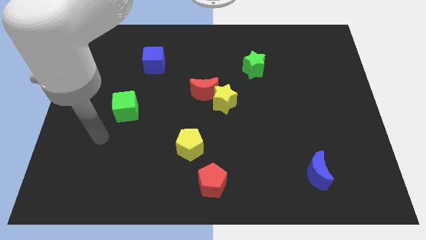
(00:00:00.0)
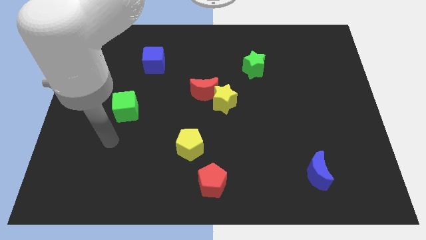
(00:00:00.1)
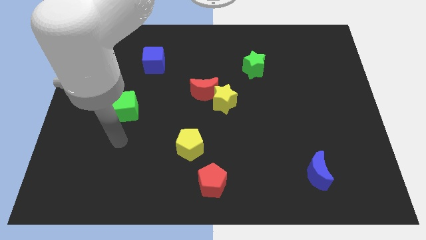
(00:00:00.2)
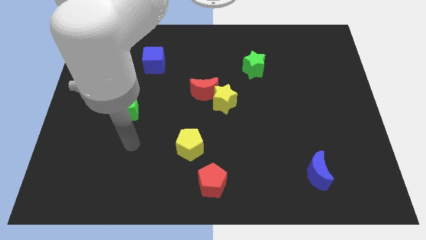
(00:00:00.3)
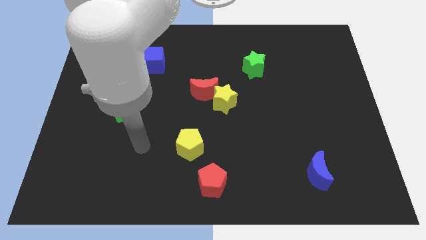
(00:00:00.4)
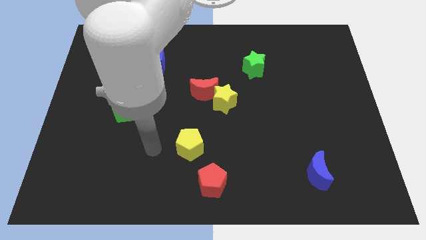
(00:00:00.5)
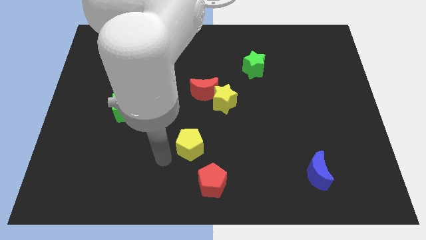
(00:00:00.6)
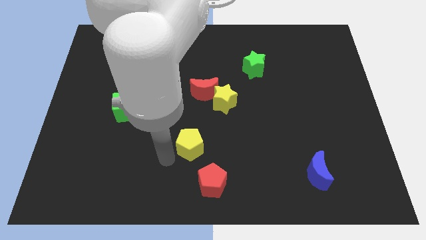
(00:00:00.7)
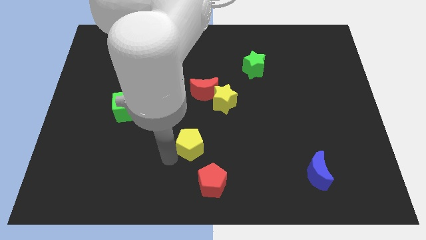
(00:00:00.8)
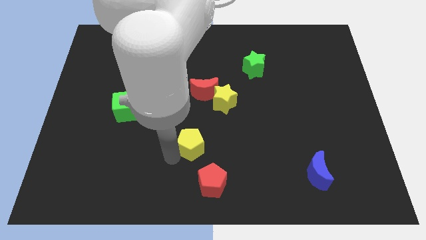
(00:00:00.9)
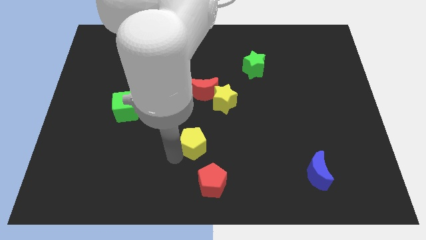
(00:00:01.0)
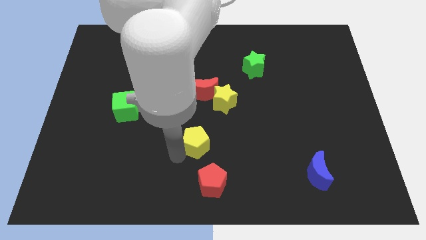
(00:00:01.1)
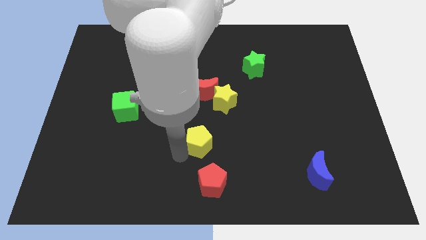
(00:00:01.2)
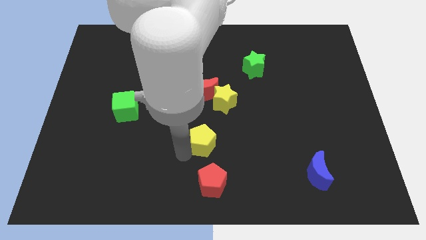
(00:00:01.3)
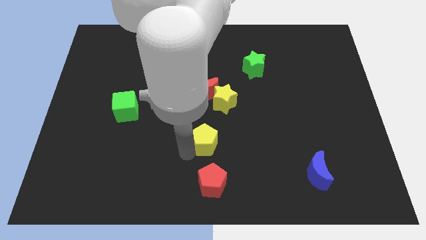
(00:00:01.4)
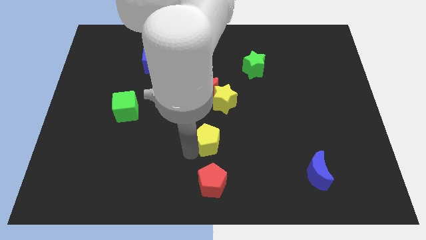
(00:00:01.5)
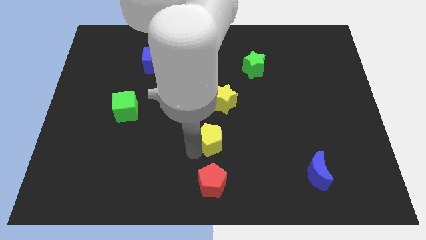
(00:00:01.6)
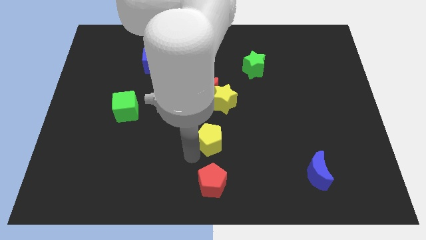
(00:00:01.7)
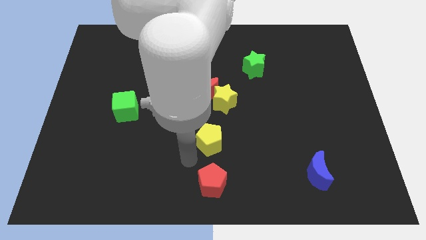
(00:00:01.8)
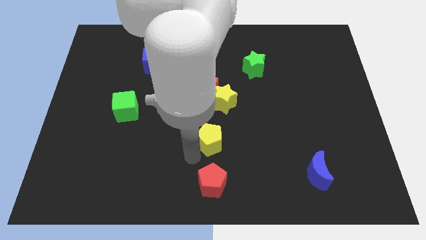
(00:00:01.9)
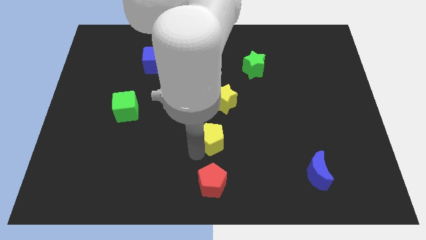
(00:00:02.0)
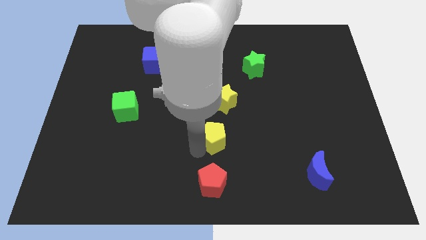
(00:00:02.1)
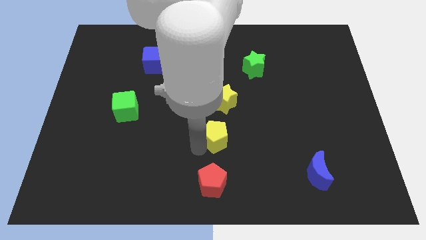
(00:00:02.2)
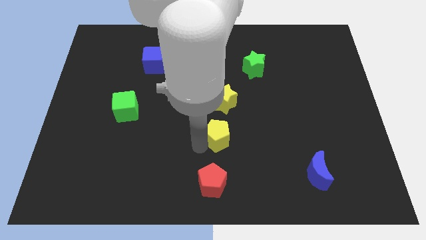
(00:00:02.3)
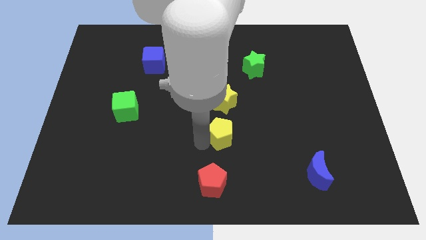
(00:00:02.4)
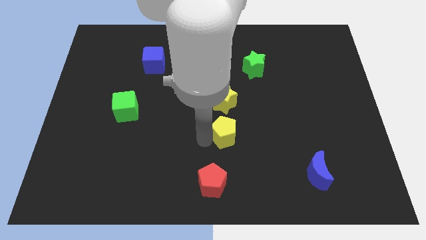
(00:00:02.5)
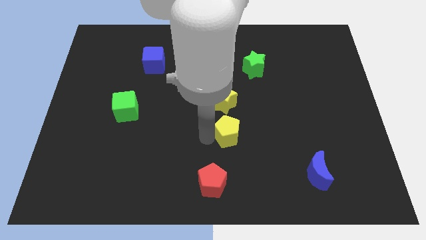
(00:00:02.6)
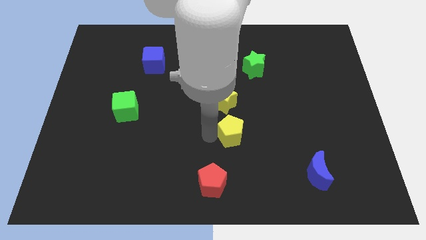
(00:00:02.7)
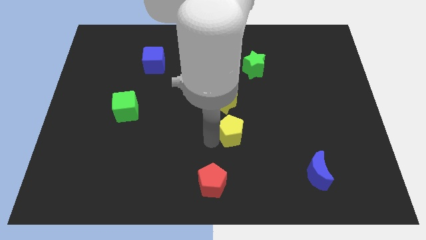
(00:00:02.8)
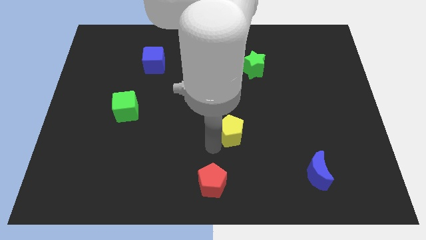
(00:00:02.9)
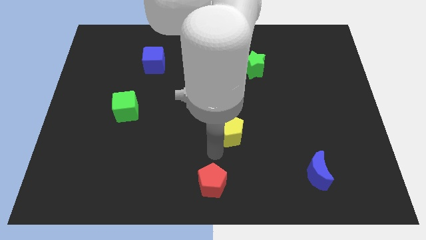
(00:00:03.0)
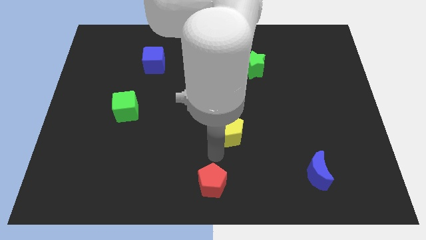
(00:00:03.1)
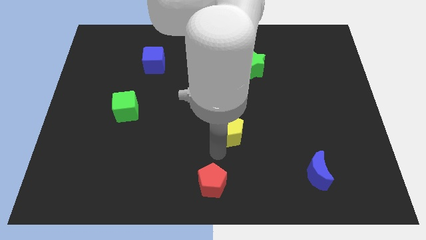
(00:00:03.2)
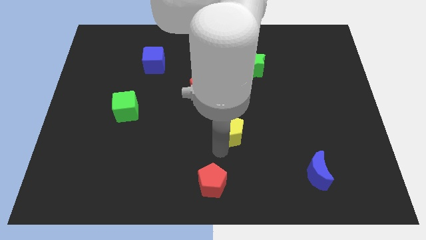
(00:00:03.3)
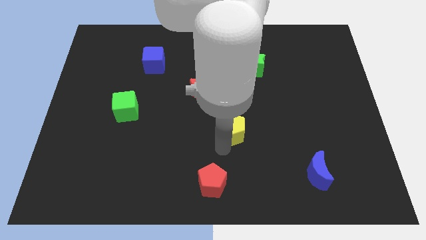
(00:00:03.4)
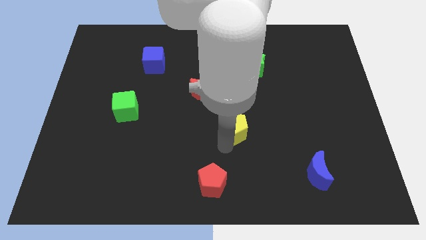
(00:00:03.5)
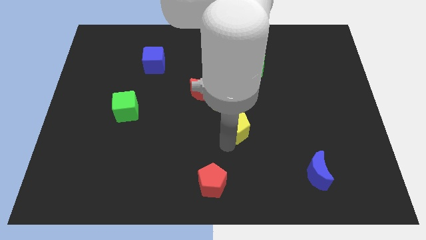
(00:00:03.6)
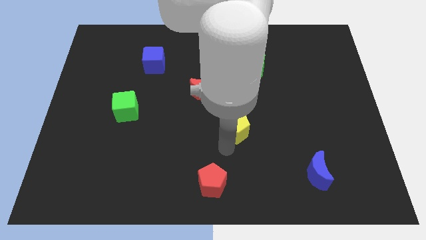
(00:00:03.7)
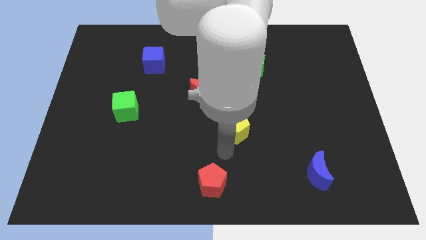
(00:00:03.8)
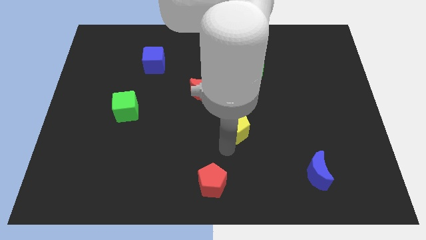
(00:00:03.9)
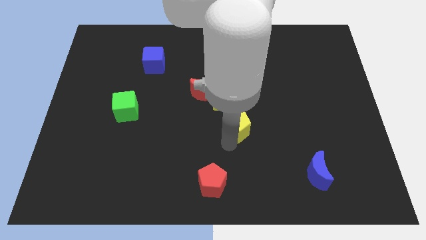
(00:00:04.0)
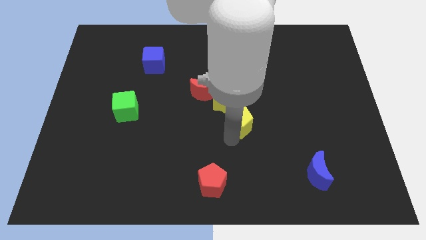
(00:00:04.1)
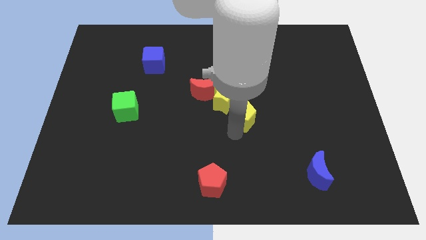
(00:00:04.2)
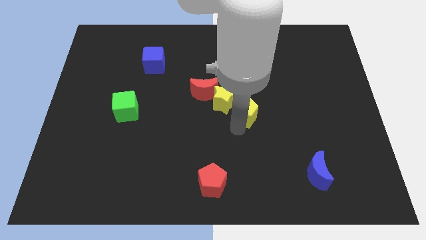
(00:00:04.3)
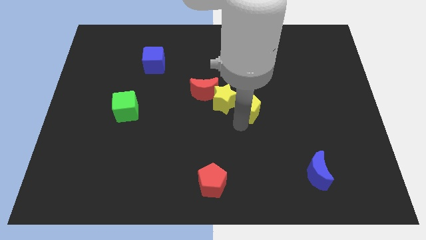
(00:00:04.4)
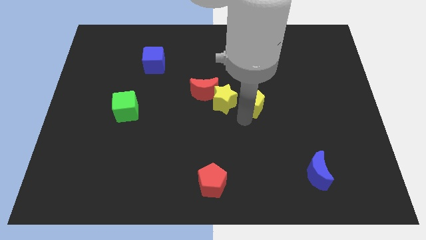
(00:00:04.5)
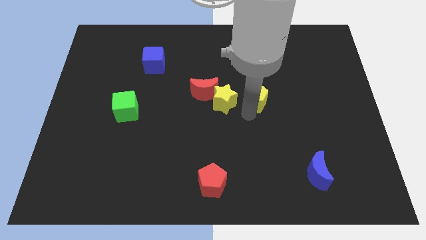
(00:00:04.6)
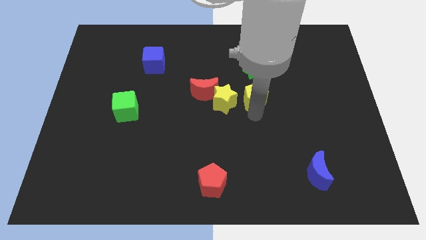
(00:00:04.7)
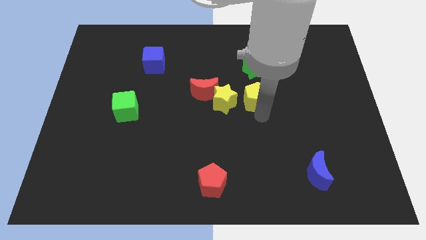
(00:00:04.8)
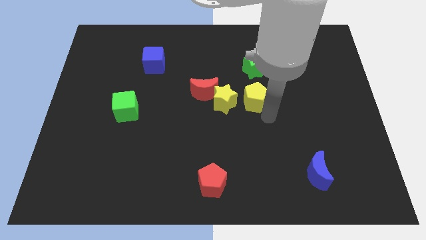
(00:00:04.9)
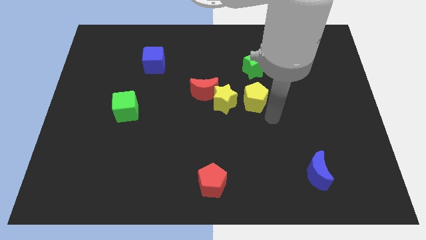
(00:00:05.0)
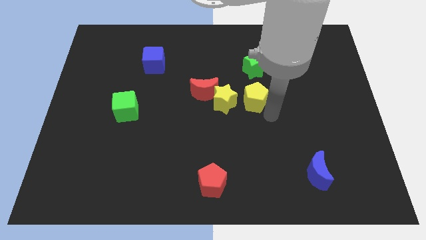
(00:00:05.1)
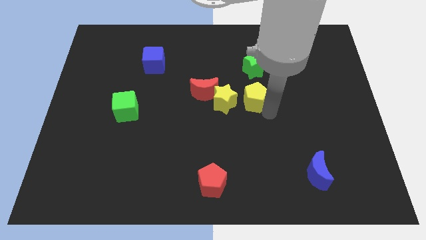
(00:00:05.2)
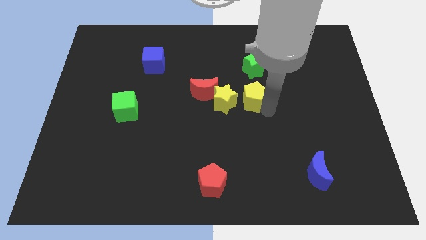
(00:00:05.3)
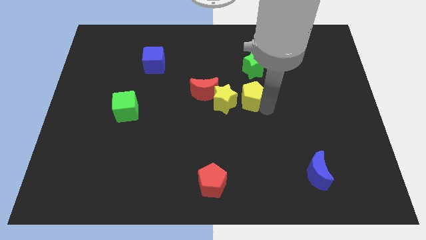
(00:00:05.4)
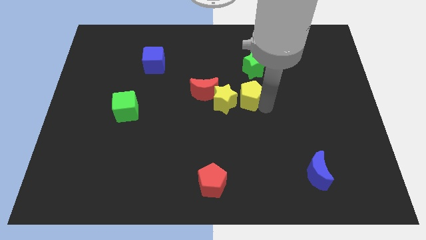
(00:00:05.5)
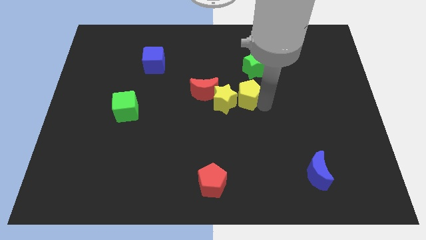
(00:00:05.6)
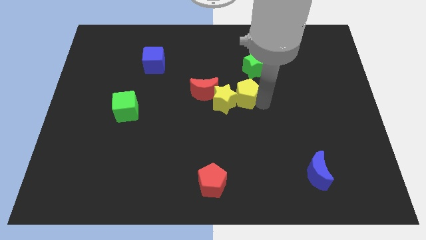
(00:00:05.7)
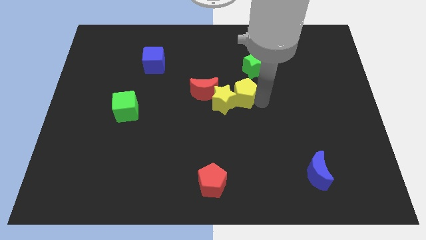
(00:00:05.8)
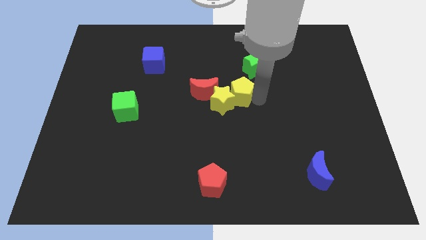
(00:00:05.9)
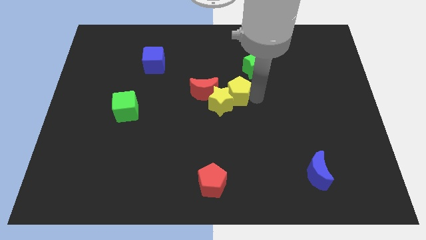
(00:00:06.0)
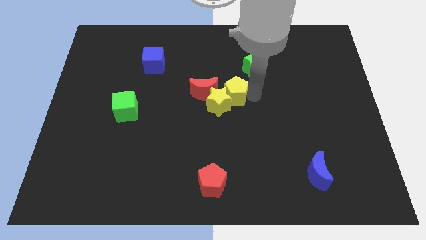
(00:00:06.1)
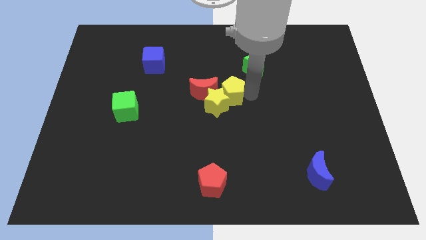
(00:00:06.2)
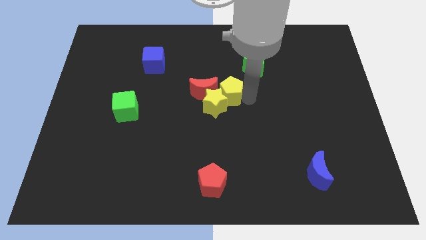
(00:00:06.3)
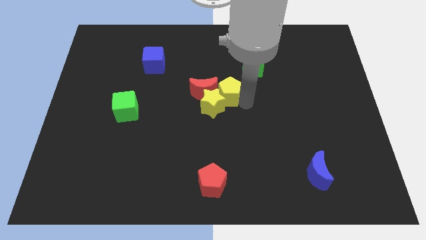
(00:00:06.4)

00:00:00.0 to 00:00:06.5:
move the yellow pentagon diagonally up and to the right of the red moon

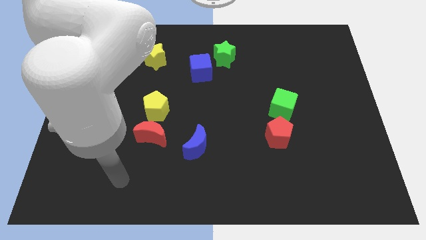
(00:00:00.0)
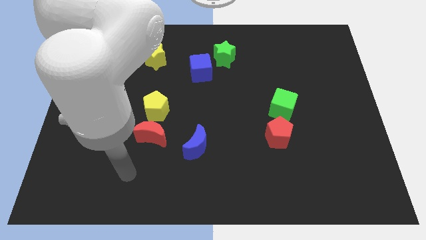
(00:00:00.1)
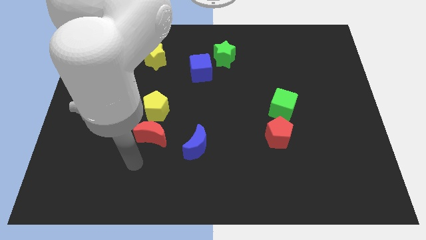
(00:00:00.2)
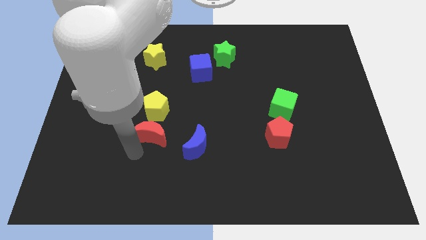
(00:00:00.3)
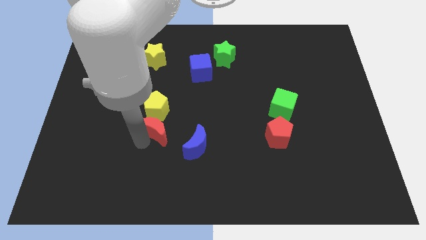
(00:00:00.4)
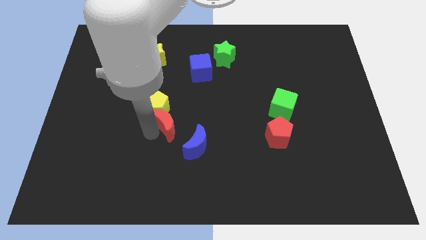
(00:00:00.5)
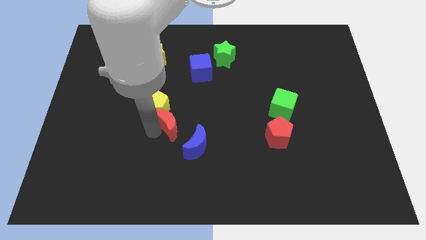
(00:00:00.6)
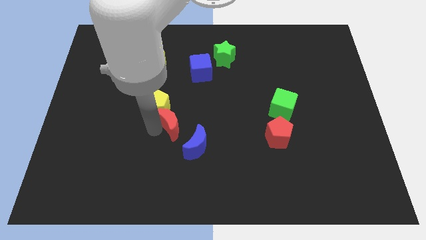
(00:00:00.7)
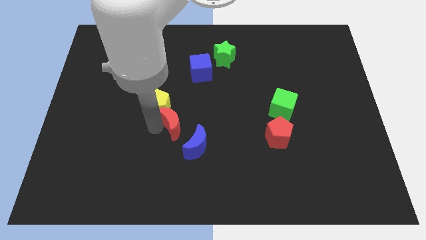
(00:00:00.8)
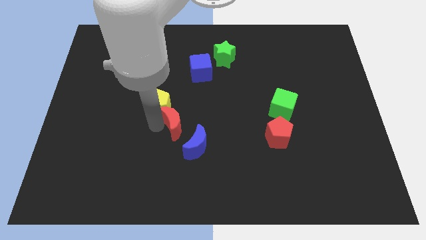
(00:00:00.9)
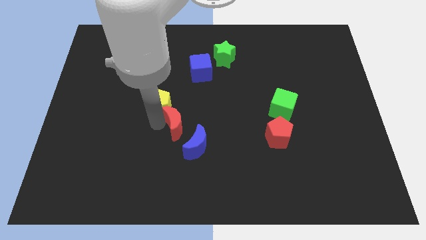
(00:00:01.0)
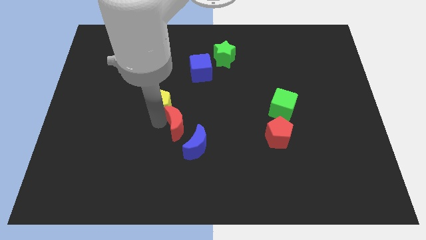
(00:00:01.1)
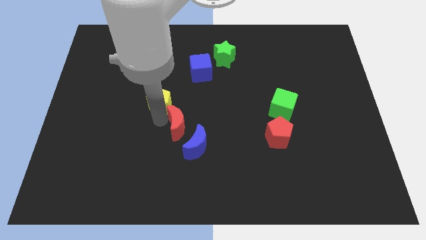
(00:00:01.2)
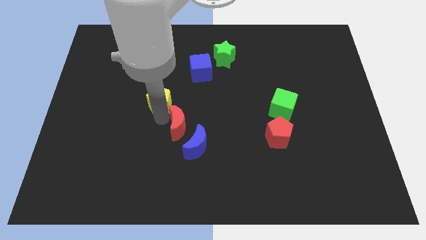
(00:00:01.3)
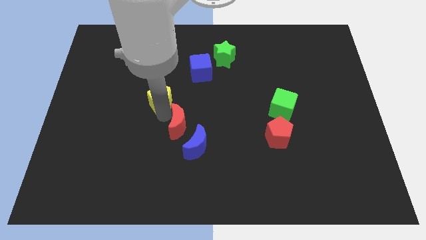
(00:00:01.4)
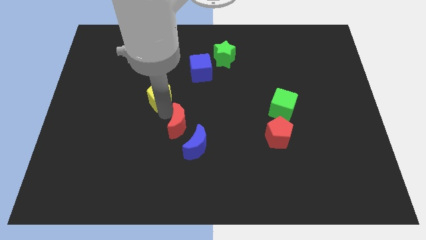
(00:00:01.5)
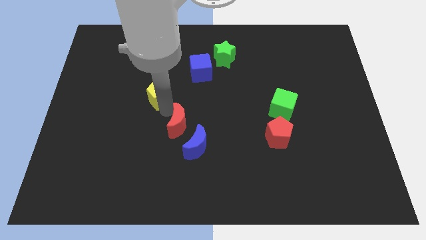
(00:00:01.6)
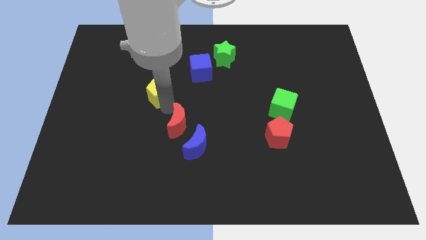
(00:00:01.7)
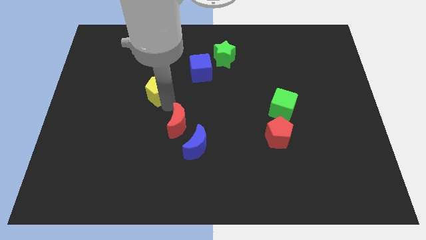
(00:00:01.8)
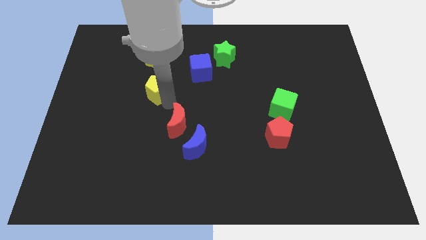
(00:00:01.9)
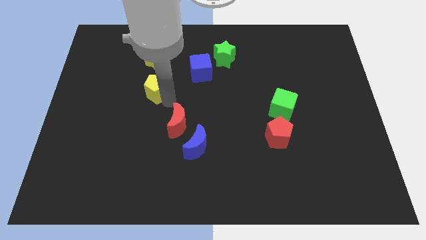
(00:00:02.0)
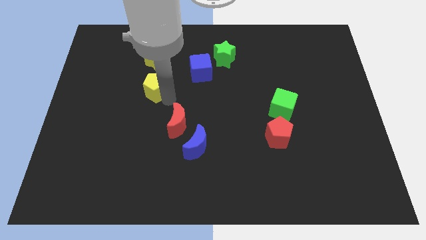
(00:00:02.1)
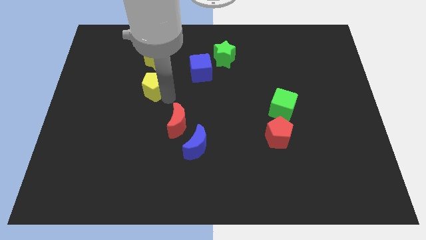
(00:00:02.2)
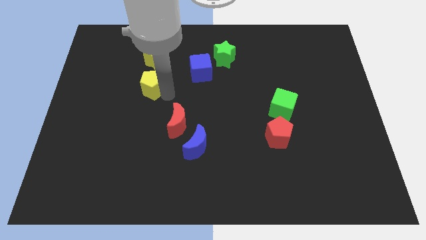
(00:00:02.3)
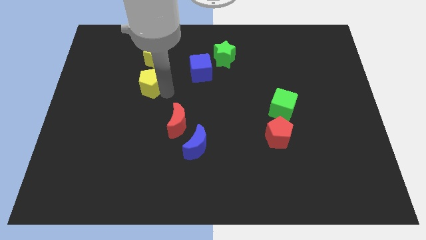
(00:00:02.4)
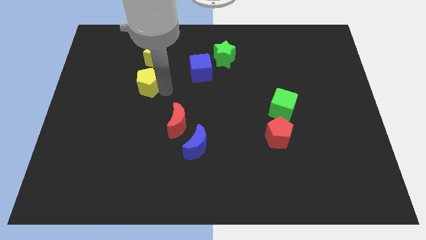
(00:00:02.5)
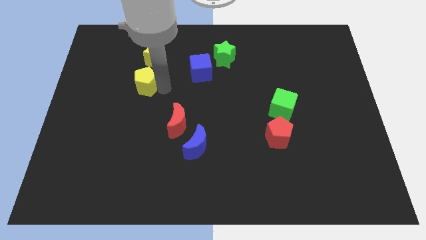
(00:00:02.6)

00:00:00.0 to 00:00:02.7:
slide the yellow pentagon to the bottom left side of the yellow star
